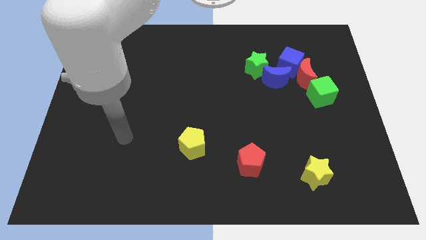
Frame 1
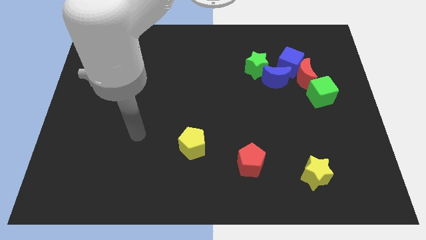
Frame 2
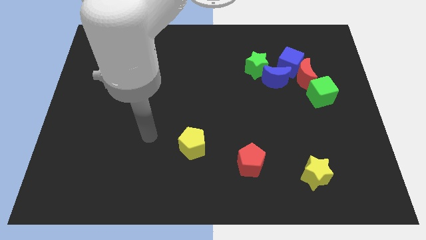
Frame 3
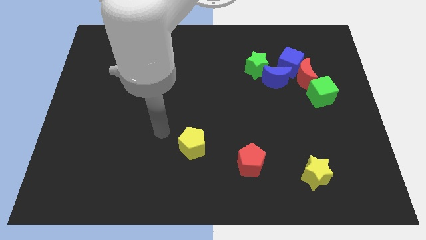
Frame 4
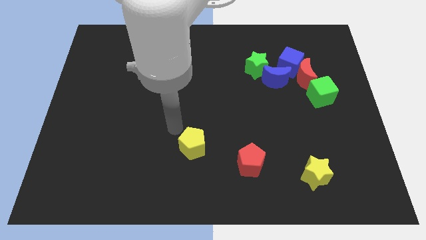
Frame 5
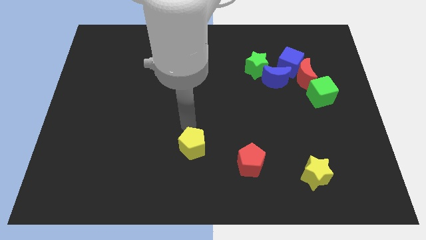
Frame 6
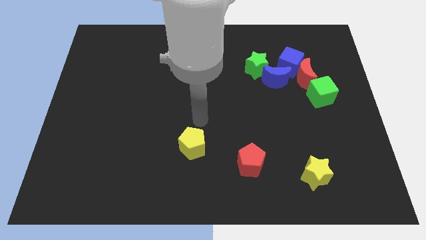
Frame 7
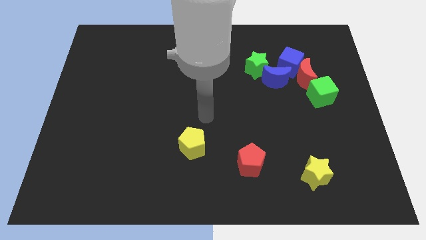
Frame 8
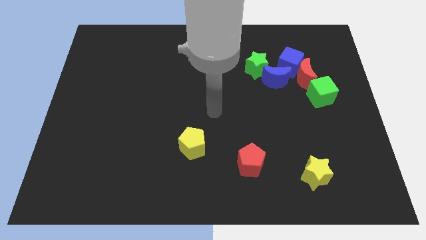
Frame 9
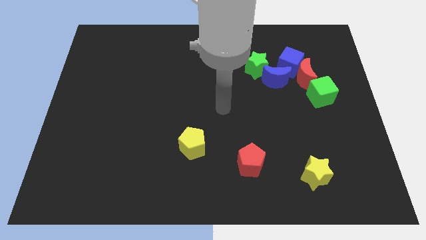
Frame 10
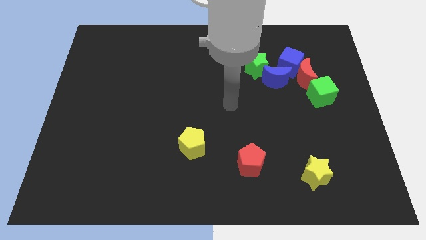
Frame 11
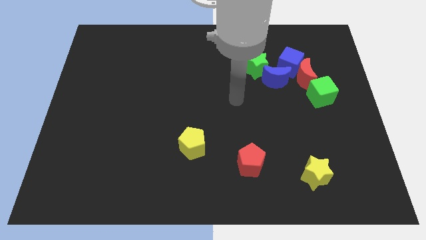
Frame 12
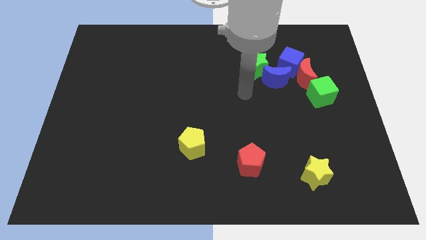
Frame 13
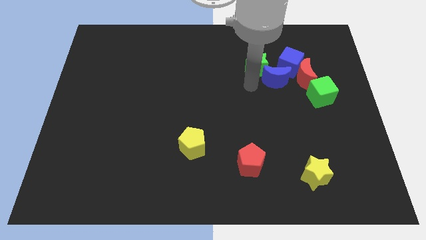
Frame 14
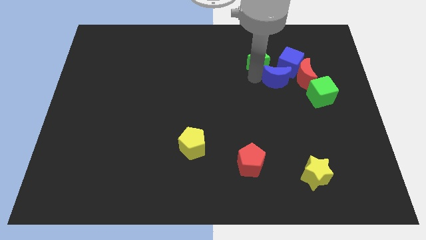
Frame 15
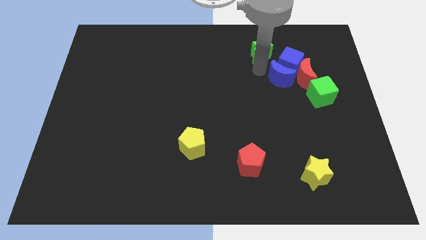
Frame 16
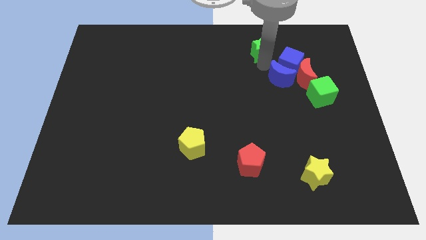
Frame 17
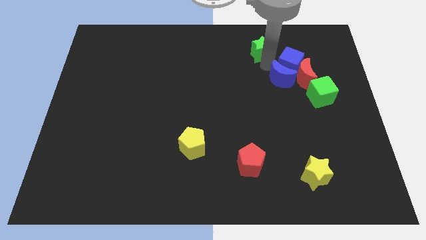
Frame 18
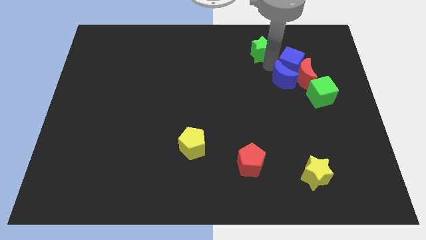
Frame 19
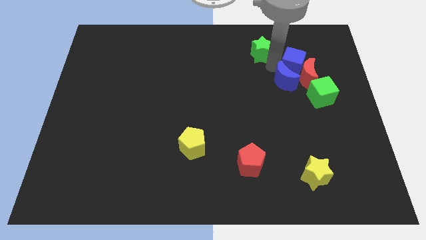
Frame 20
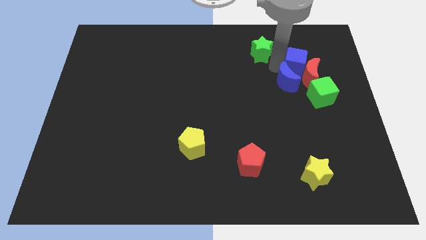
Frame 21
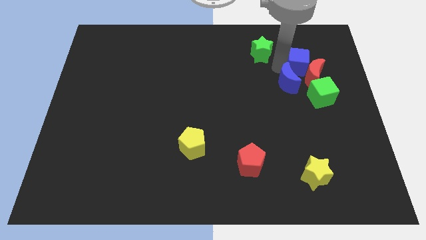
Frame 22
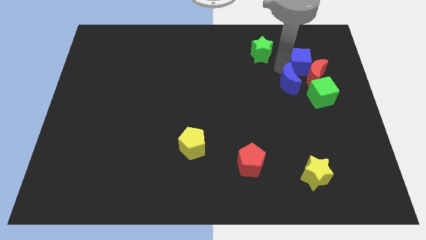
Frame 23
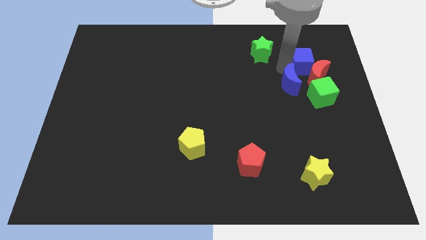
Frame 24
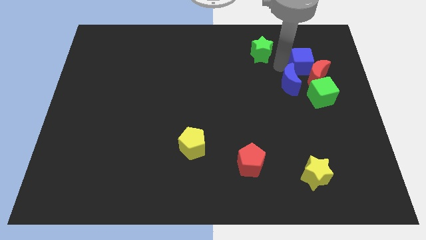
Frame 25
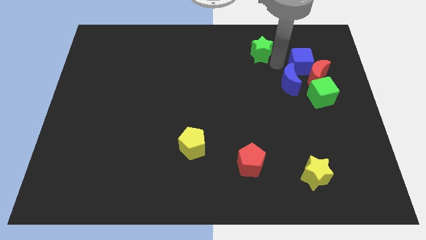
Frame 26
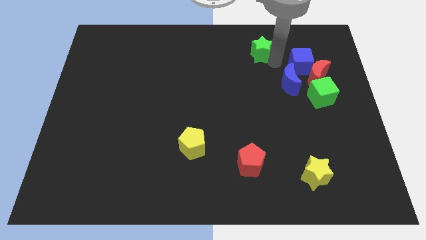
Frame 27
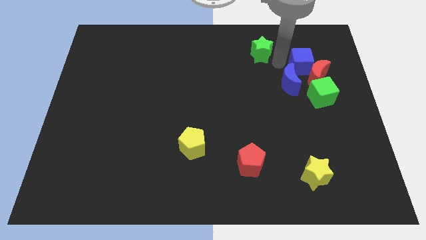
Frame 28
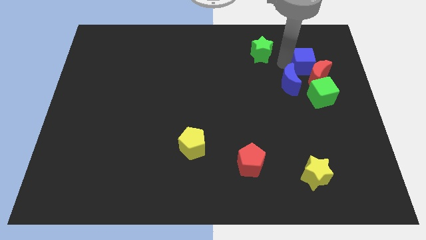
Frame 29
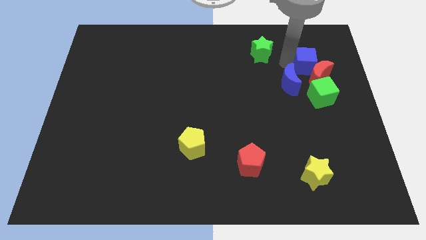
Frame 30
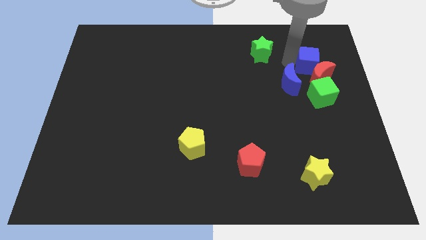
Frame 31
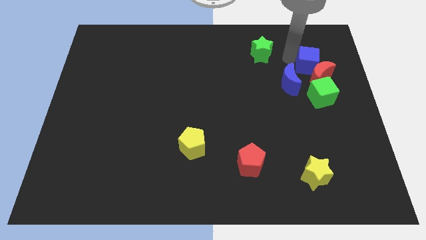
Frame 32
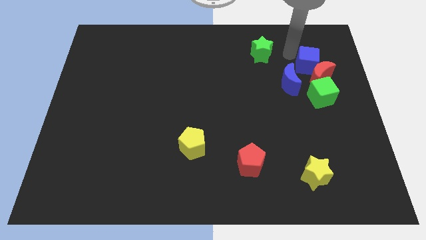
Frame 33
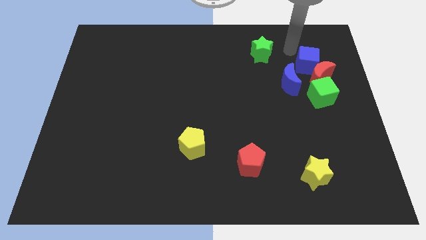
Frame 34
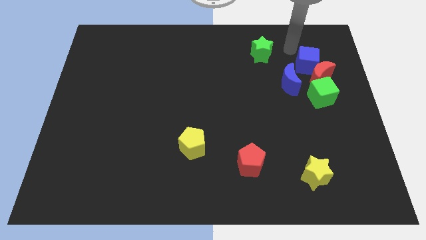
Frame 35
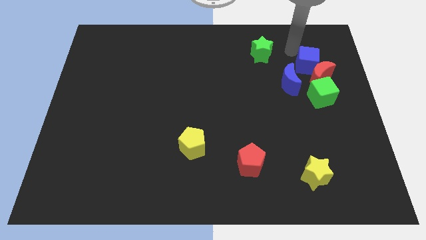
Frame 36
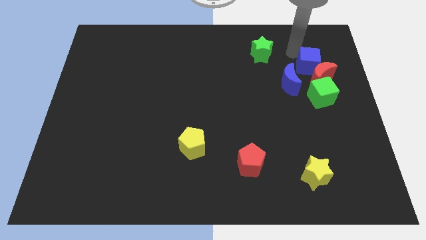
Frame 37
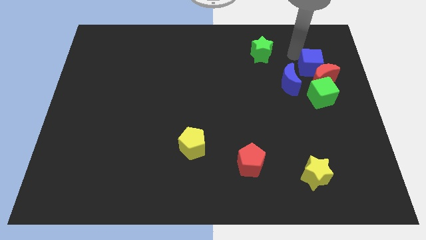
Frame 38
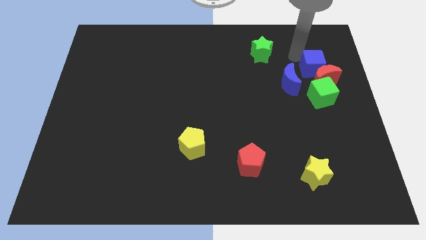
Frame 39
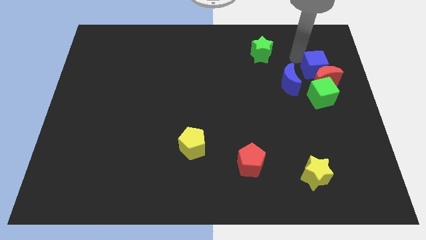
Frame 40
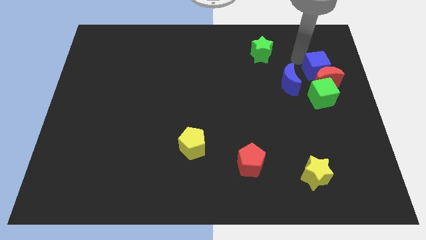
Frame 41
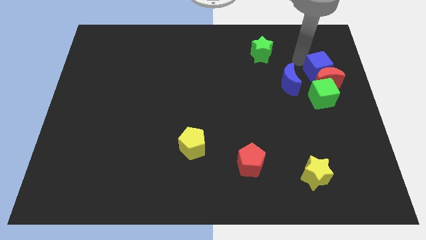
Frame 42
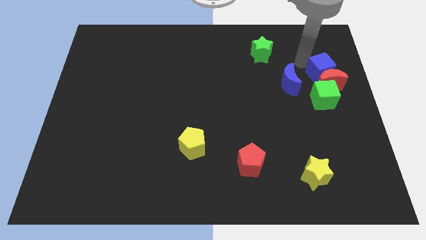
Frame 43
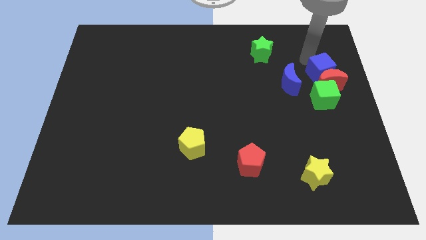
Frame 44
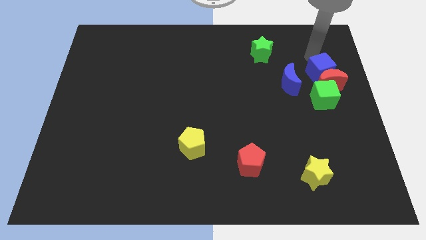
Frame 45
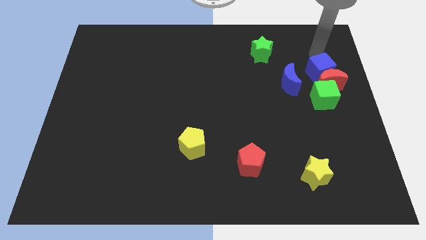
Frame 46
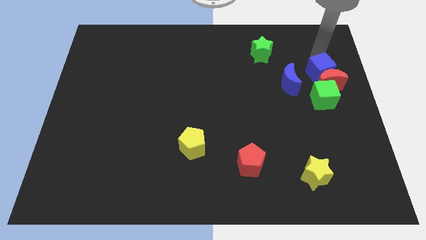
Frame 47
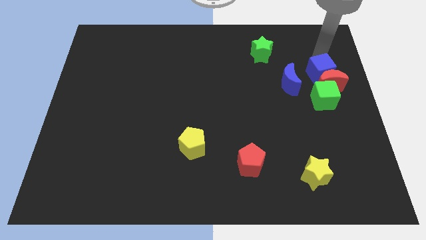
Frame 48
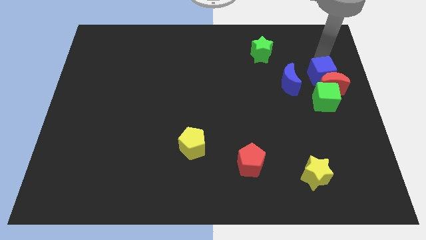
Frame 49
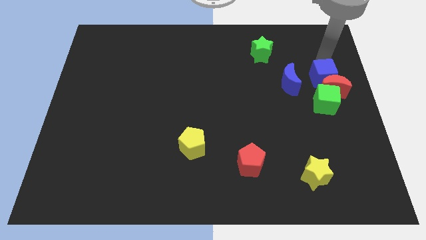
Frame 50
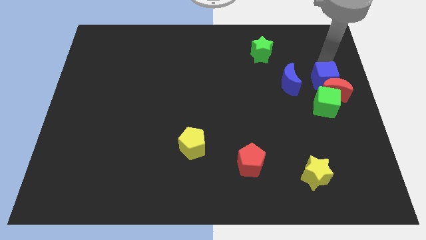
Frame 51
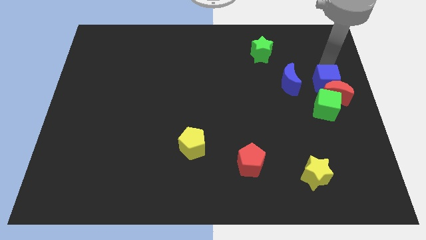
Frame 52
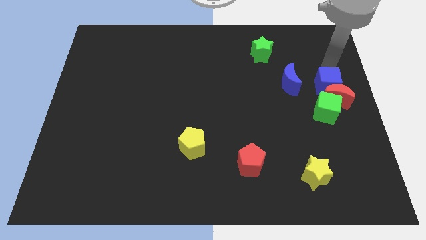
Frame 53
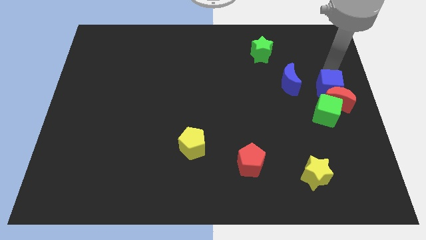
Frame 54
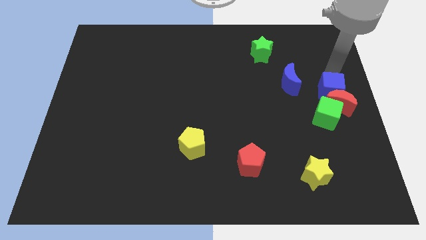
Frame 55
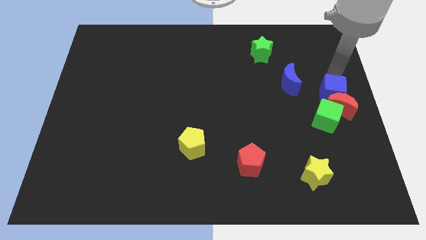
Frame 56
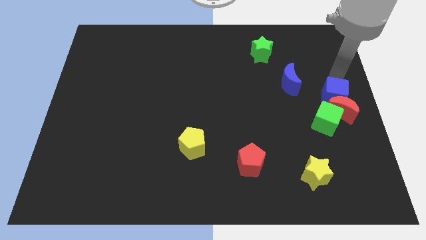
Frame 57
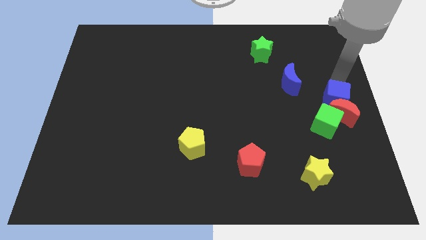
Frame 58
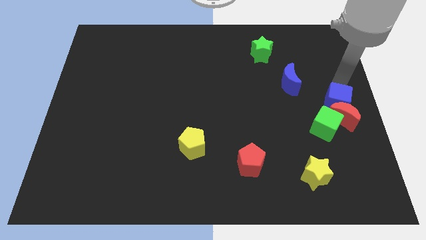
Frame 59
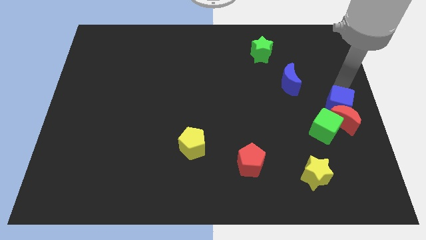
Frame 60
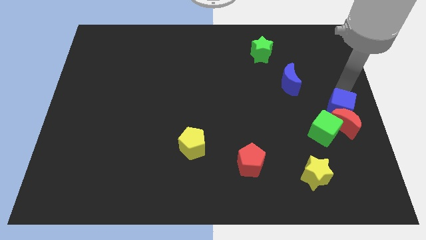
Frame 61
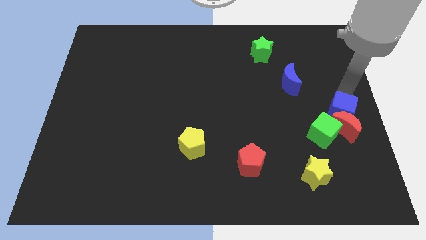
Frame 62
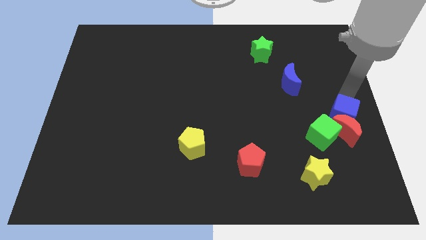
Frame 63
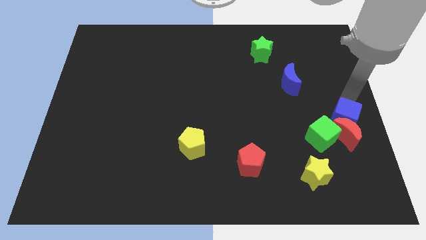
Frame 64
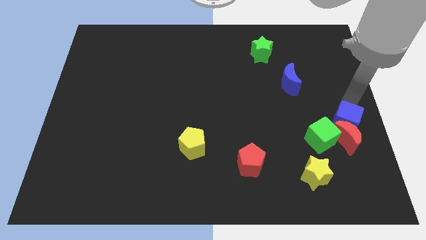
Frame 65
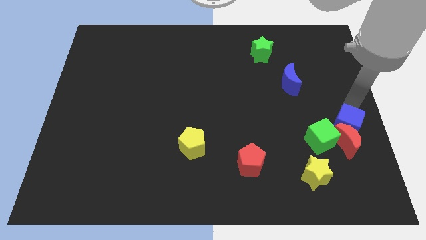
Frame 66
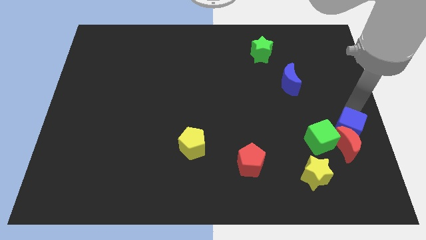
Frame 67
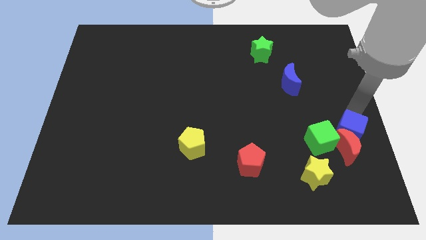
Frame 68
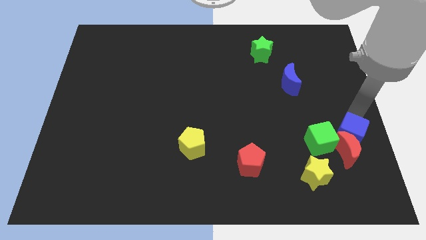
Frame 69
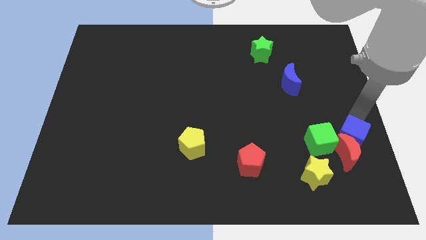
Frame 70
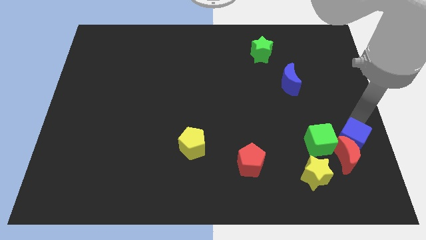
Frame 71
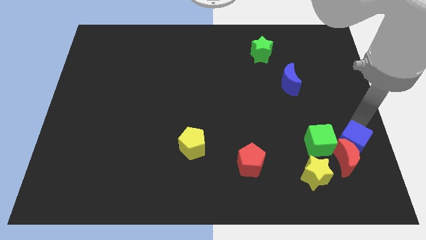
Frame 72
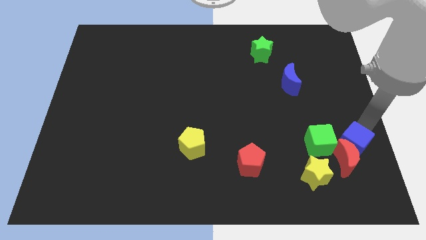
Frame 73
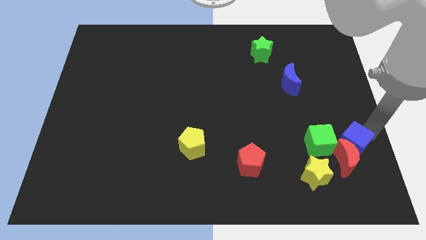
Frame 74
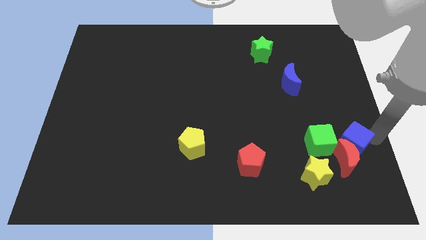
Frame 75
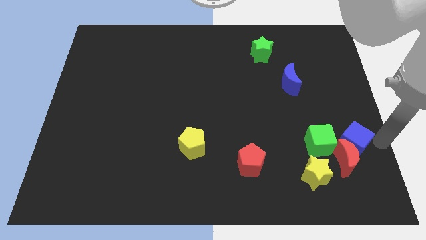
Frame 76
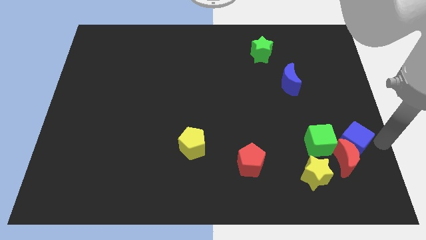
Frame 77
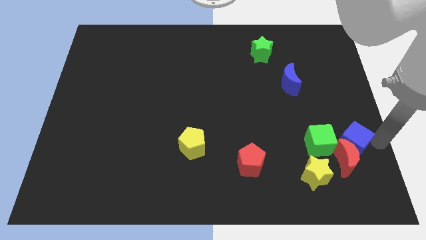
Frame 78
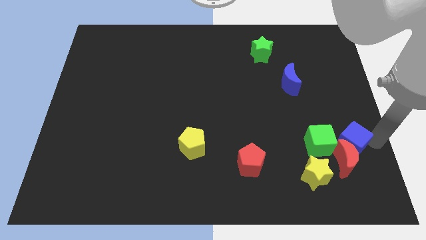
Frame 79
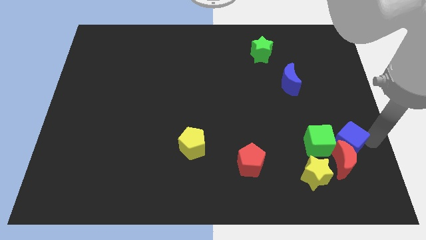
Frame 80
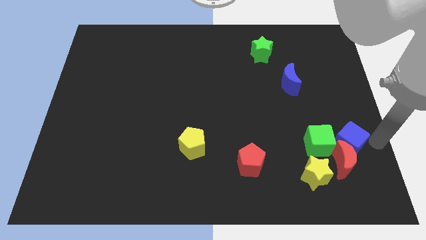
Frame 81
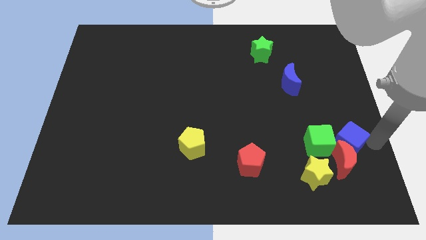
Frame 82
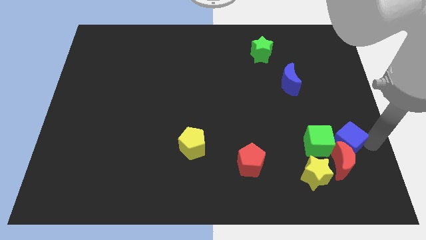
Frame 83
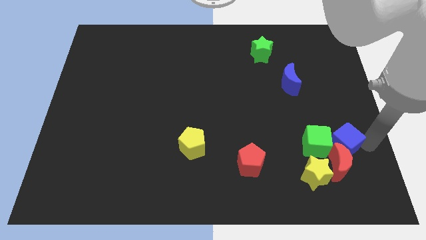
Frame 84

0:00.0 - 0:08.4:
push the blue cube towards the green cube
